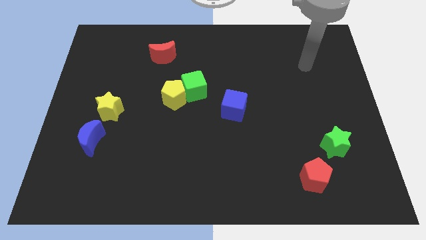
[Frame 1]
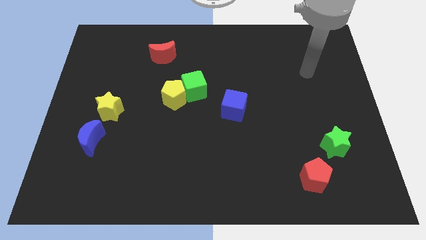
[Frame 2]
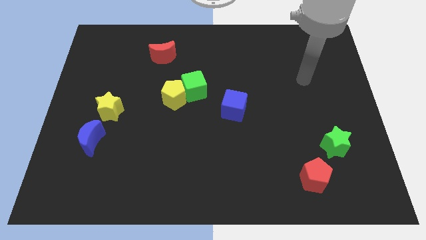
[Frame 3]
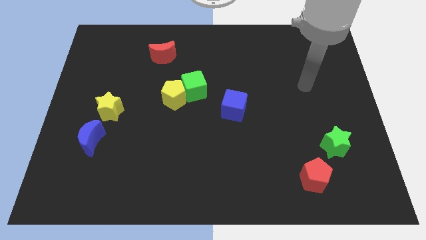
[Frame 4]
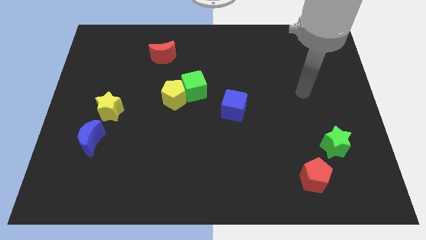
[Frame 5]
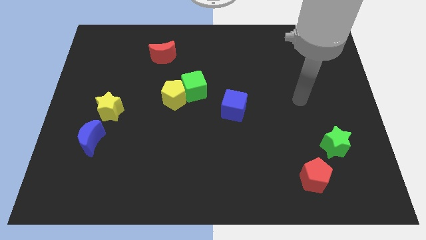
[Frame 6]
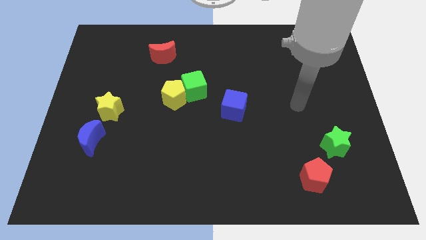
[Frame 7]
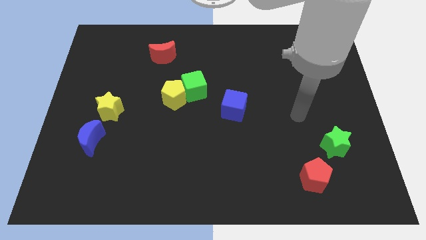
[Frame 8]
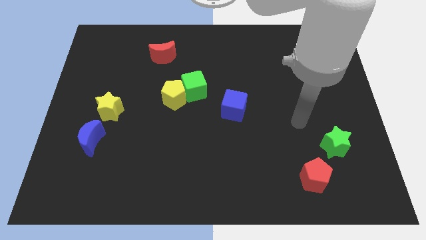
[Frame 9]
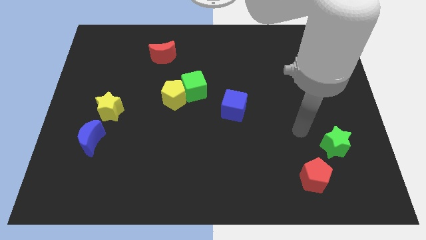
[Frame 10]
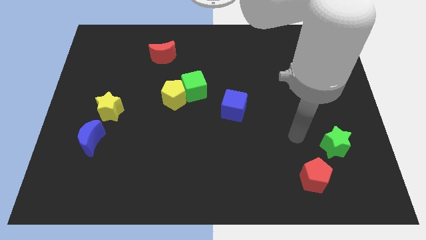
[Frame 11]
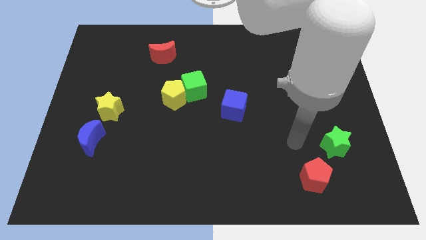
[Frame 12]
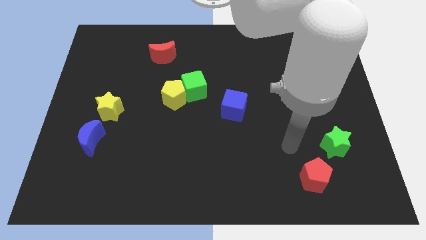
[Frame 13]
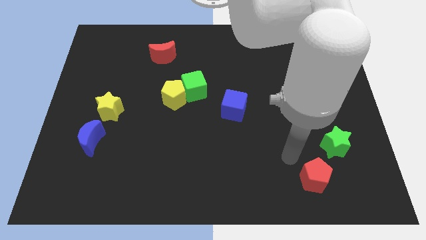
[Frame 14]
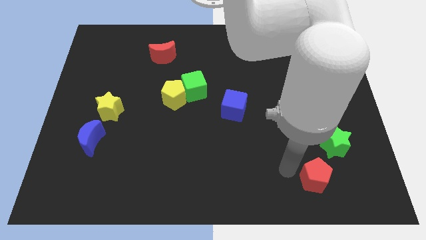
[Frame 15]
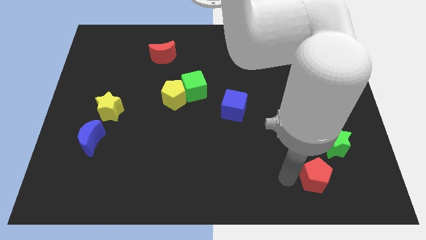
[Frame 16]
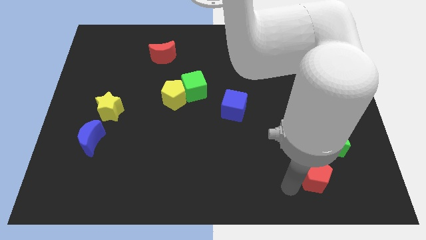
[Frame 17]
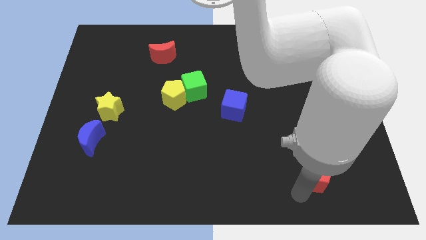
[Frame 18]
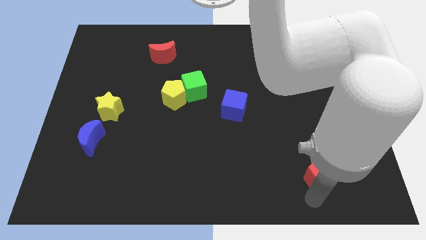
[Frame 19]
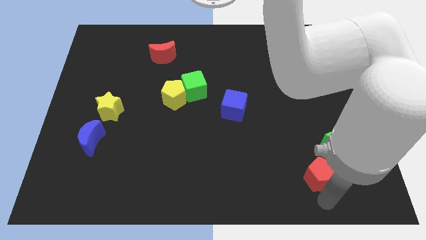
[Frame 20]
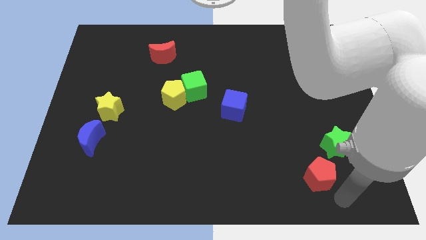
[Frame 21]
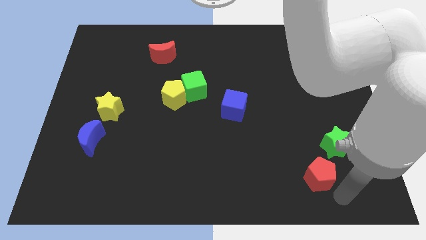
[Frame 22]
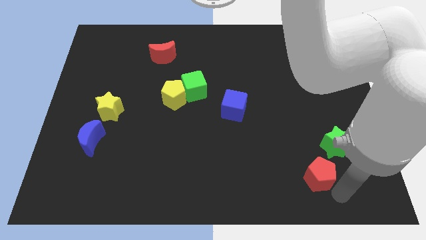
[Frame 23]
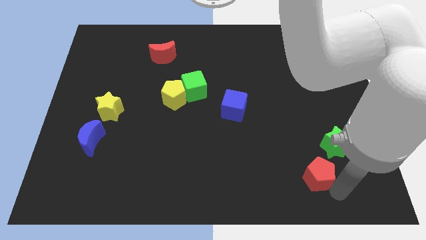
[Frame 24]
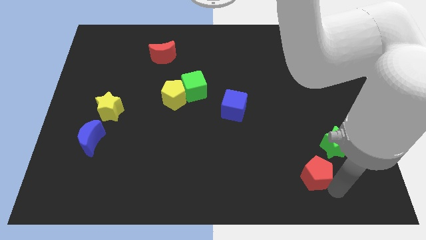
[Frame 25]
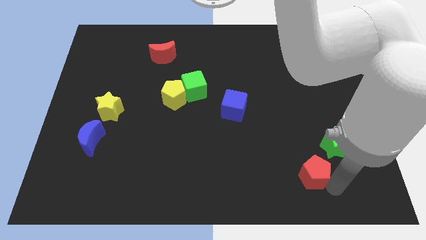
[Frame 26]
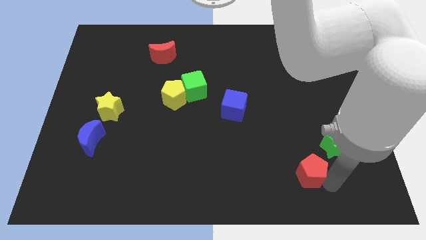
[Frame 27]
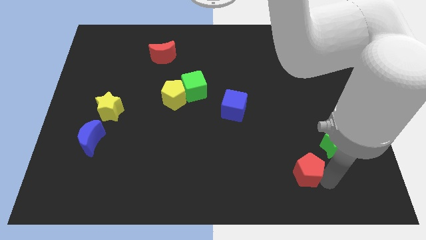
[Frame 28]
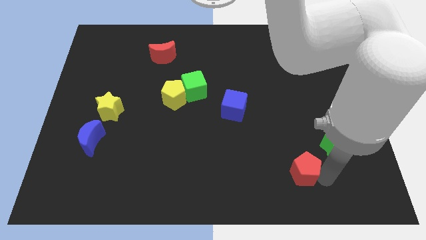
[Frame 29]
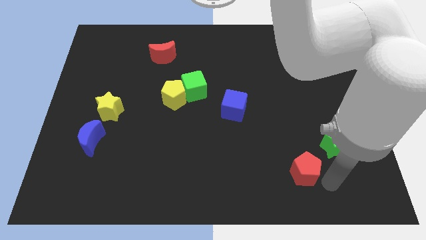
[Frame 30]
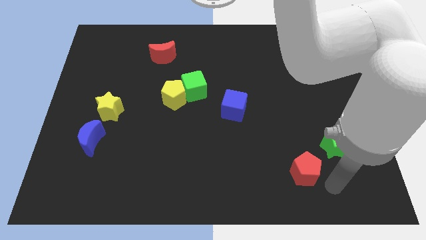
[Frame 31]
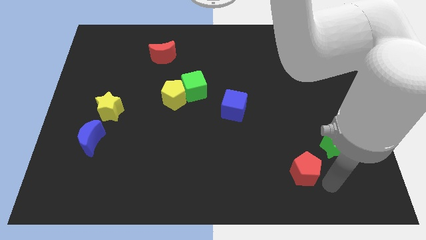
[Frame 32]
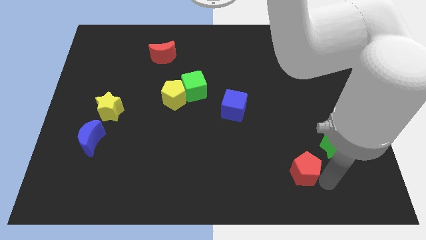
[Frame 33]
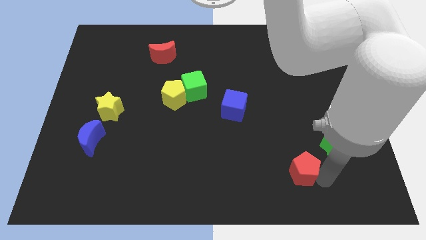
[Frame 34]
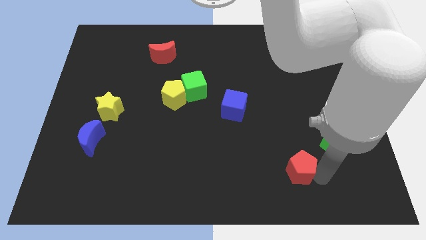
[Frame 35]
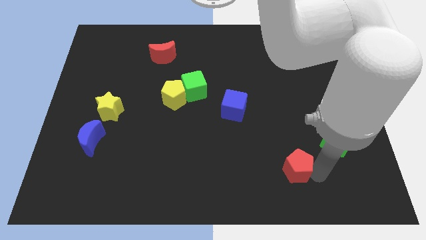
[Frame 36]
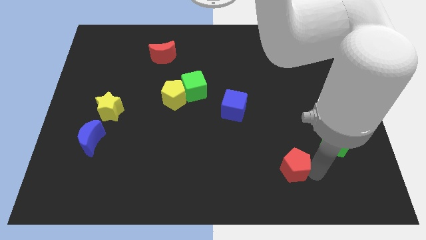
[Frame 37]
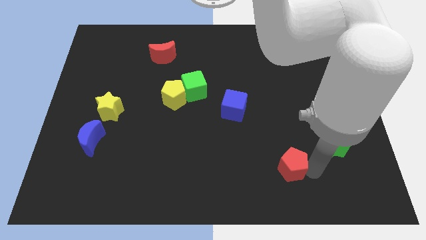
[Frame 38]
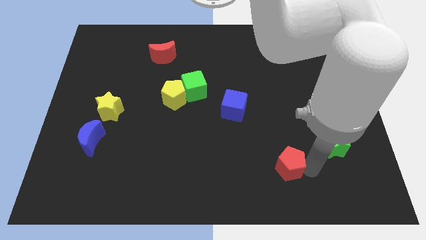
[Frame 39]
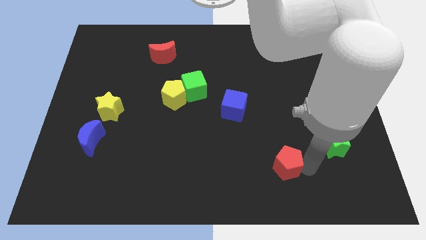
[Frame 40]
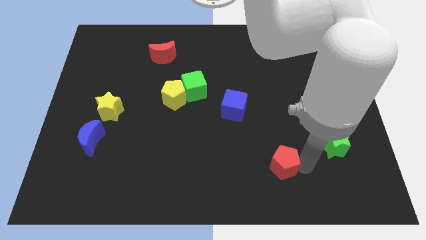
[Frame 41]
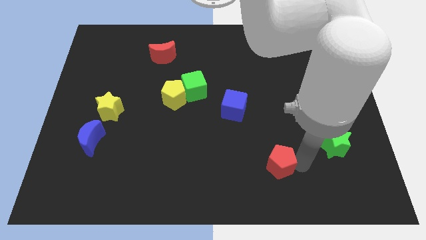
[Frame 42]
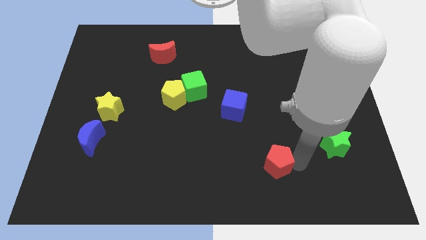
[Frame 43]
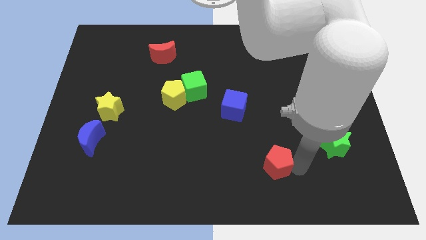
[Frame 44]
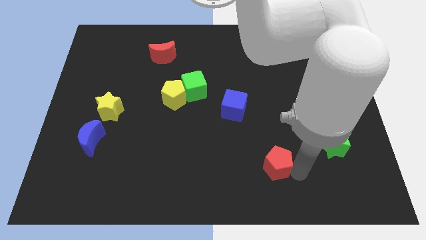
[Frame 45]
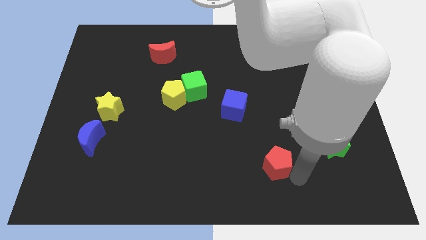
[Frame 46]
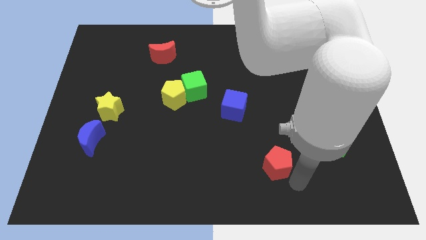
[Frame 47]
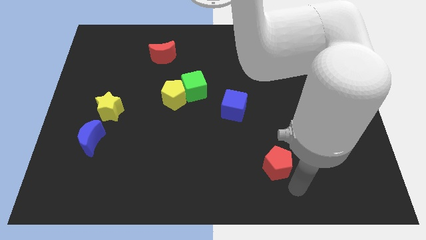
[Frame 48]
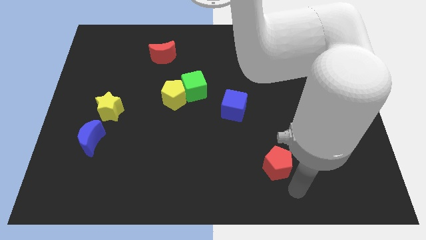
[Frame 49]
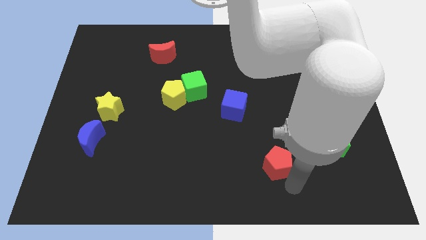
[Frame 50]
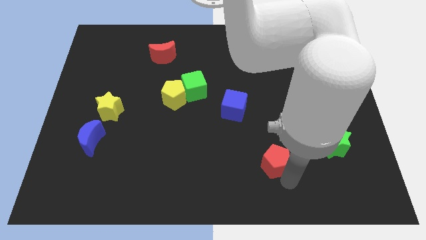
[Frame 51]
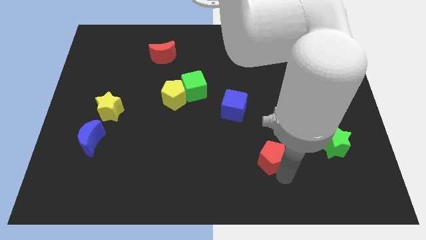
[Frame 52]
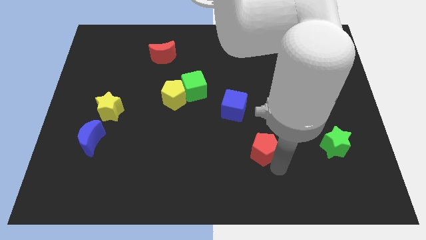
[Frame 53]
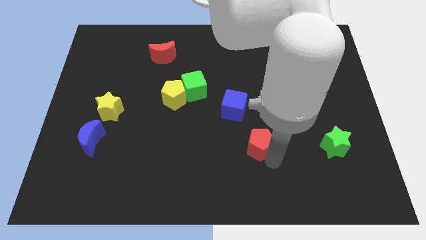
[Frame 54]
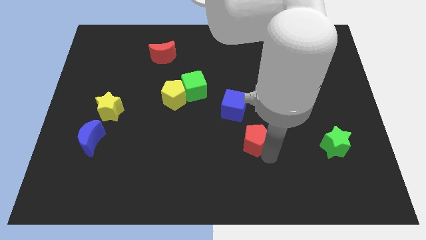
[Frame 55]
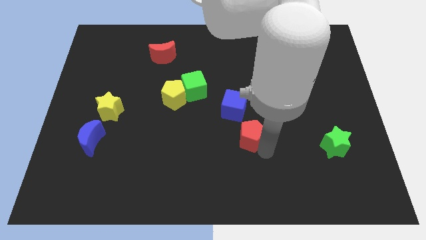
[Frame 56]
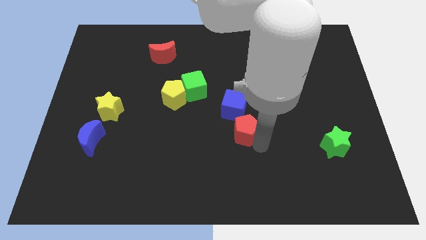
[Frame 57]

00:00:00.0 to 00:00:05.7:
put the red pentagon to the center of the board

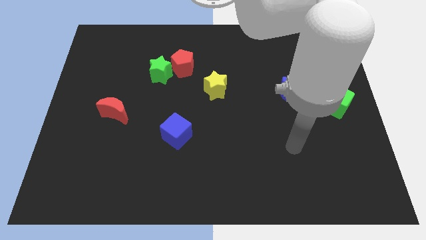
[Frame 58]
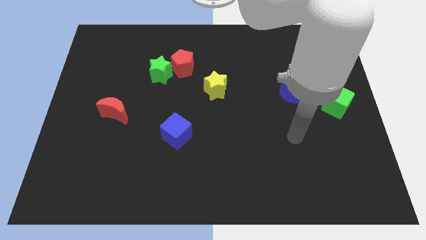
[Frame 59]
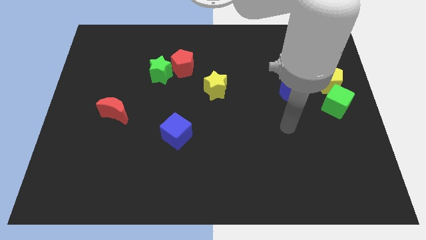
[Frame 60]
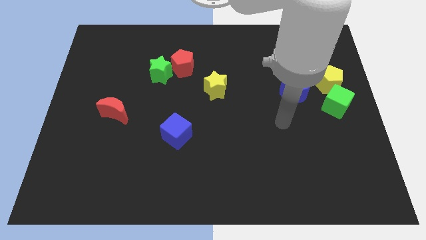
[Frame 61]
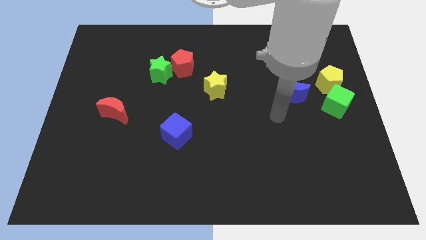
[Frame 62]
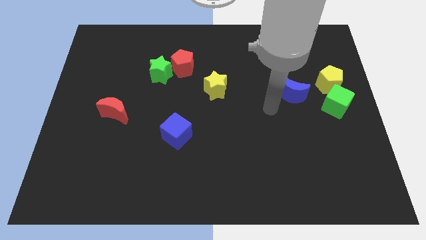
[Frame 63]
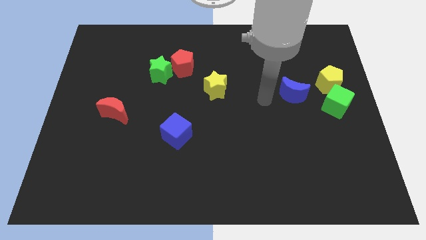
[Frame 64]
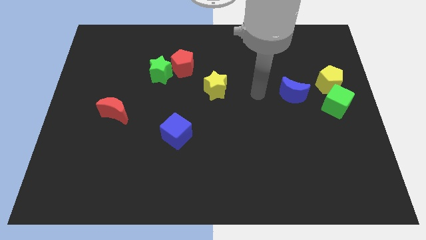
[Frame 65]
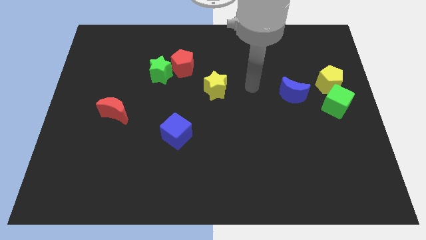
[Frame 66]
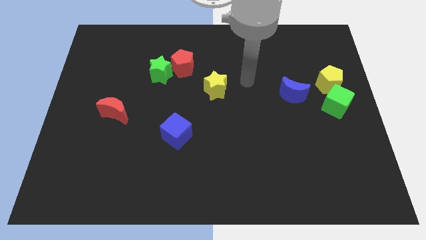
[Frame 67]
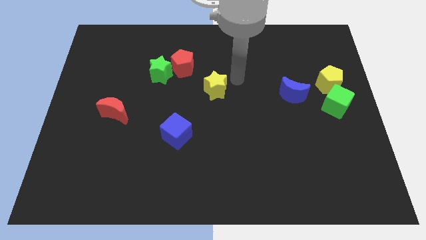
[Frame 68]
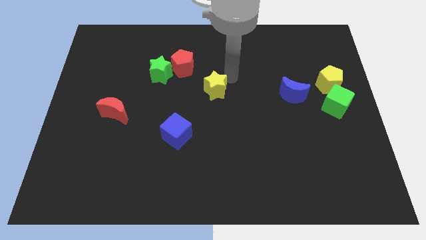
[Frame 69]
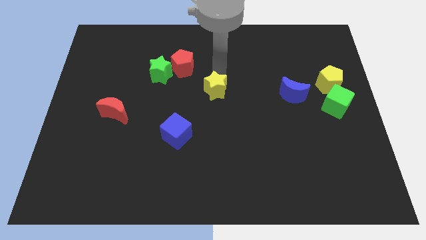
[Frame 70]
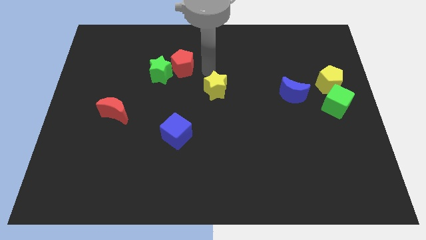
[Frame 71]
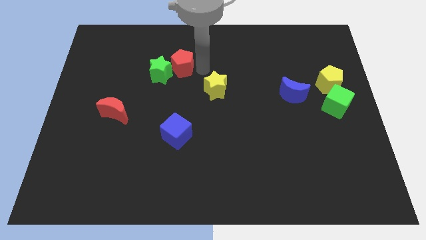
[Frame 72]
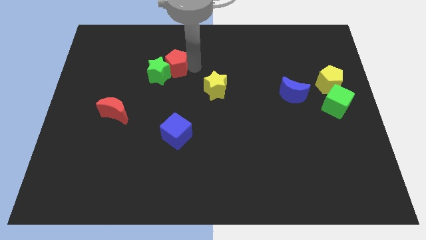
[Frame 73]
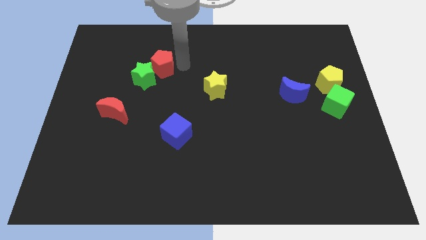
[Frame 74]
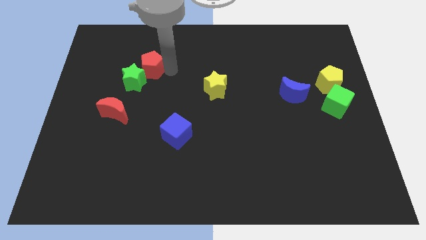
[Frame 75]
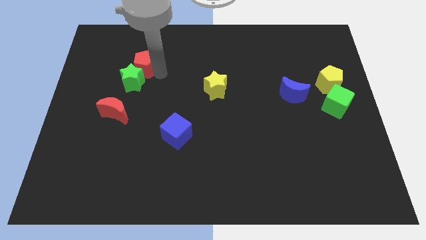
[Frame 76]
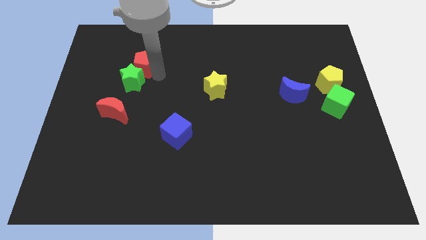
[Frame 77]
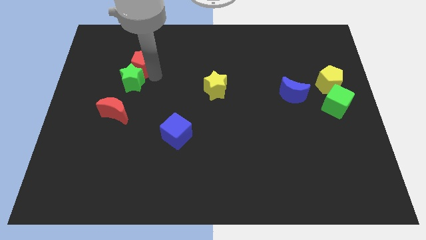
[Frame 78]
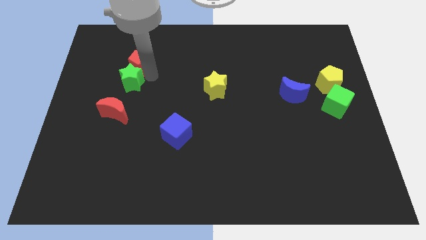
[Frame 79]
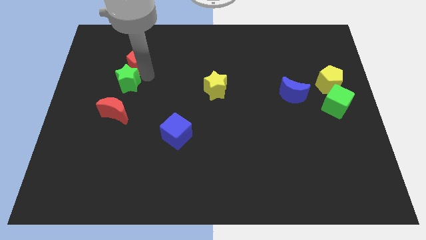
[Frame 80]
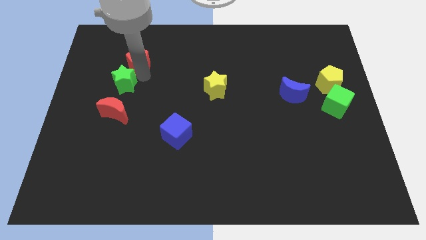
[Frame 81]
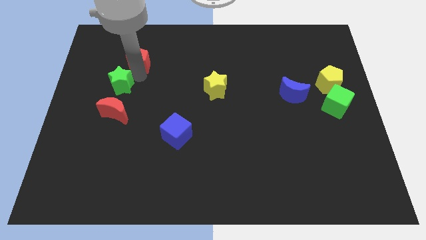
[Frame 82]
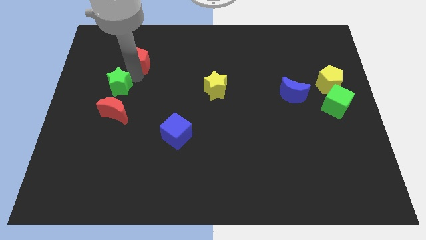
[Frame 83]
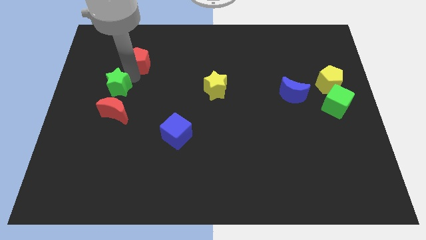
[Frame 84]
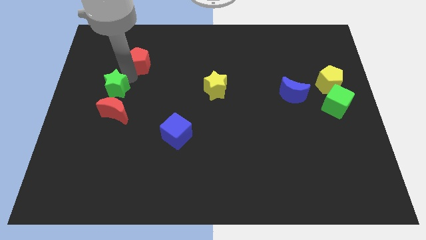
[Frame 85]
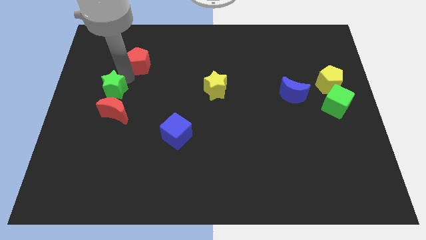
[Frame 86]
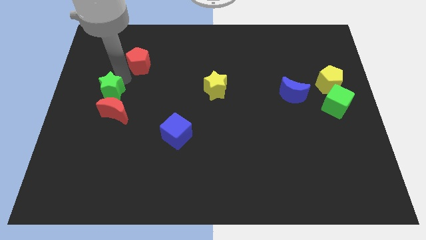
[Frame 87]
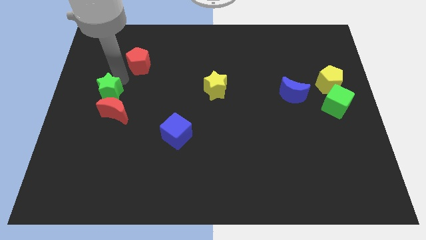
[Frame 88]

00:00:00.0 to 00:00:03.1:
slide the green star to the left side
